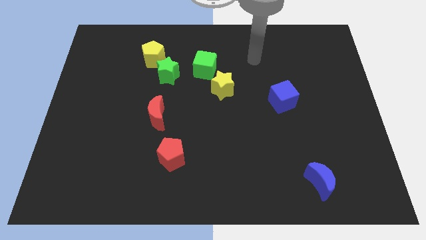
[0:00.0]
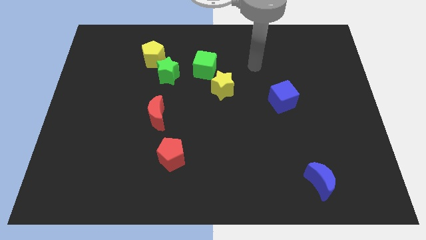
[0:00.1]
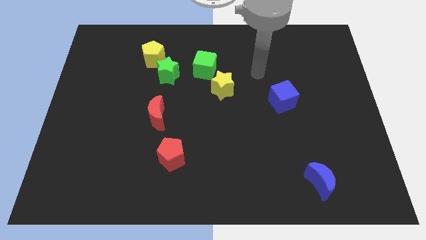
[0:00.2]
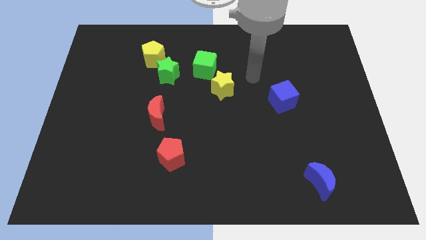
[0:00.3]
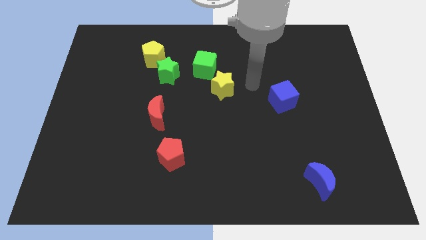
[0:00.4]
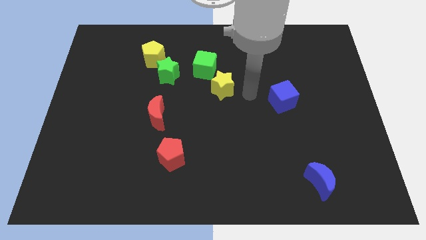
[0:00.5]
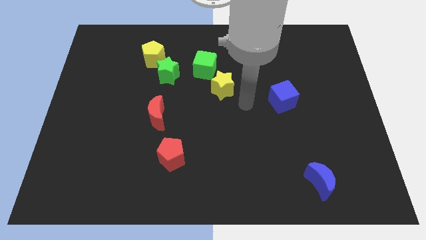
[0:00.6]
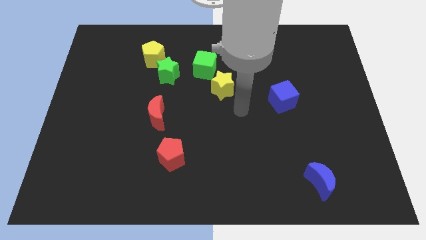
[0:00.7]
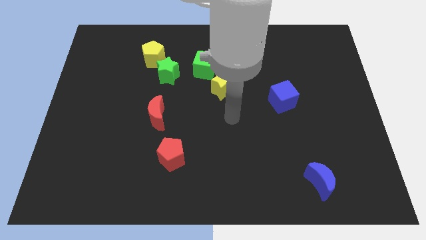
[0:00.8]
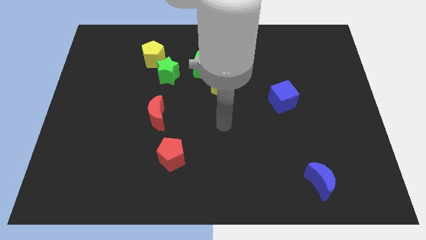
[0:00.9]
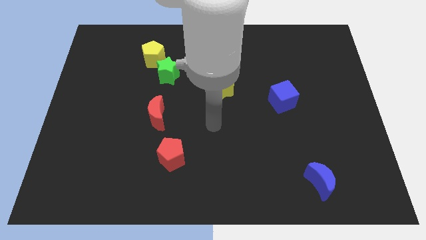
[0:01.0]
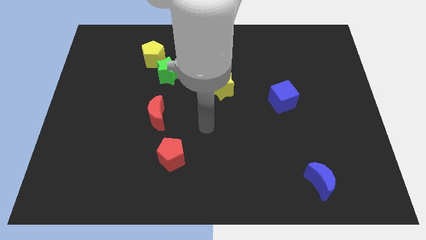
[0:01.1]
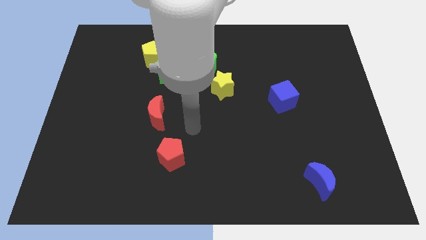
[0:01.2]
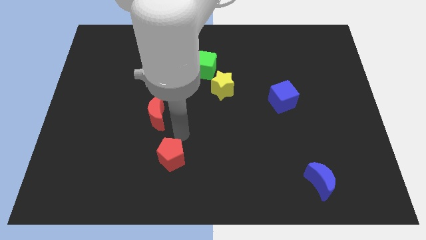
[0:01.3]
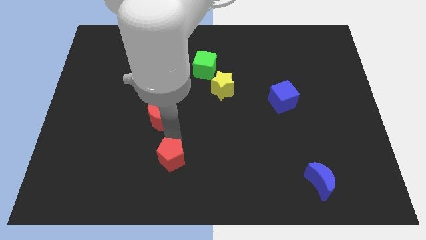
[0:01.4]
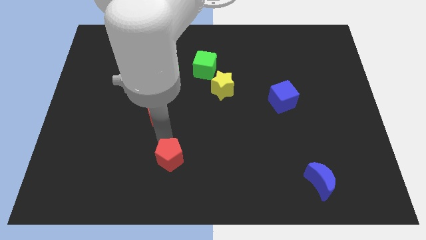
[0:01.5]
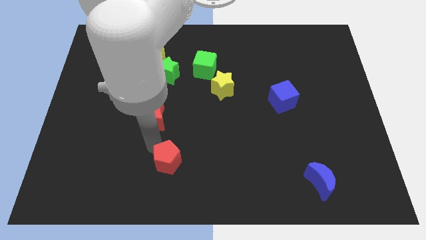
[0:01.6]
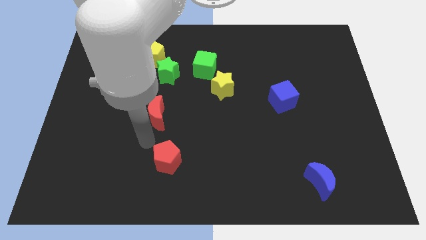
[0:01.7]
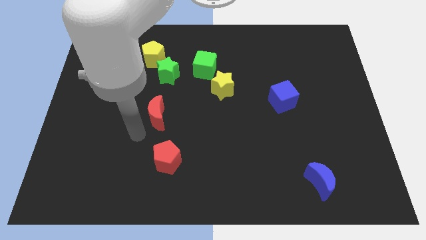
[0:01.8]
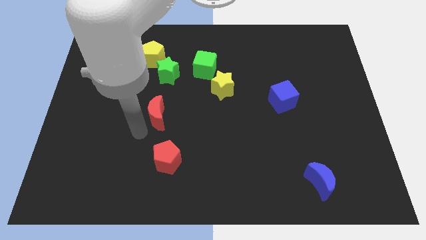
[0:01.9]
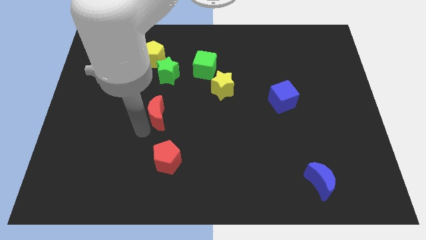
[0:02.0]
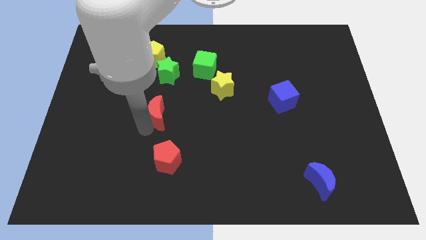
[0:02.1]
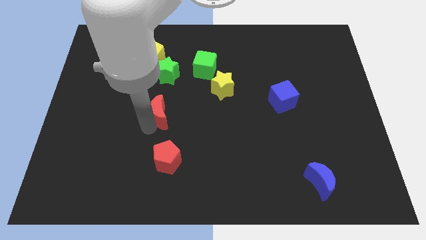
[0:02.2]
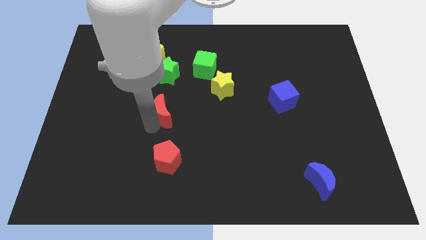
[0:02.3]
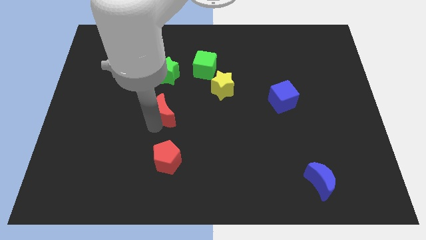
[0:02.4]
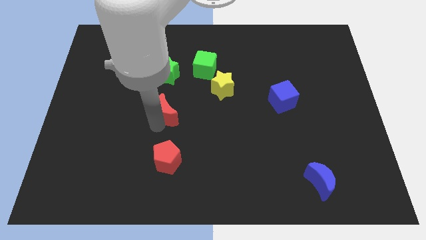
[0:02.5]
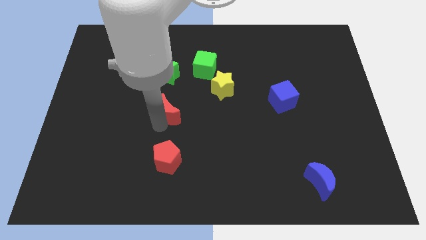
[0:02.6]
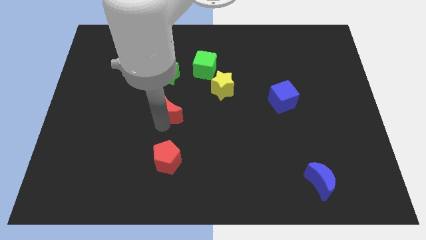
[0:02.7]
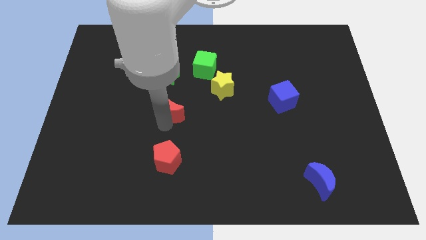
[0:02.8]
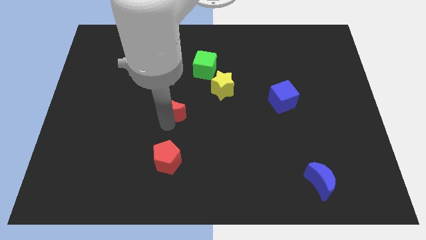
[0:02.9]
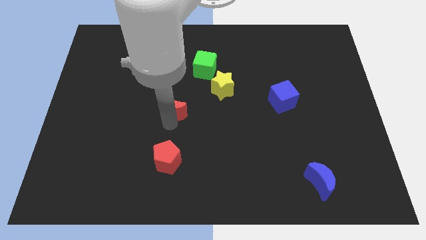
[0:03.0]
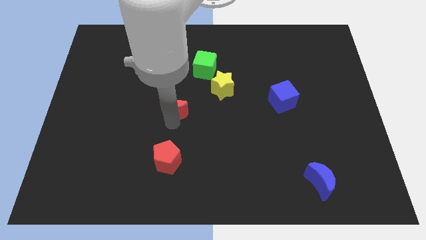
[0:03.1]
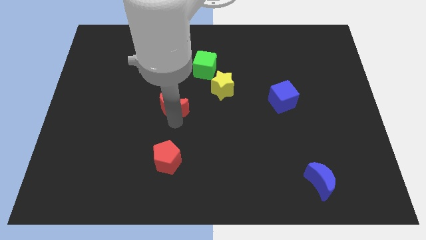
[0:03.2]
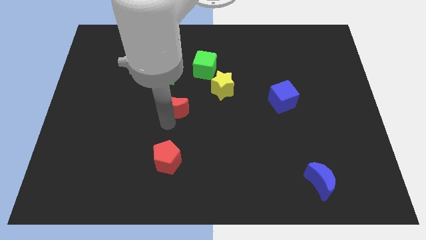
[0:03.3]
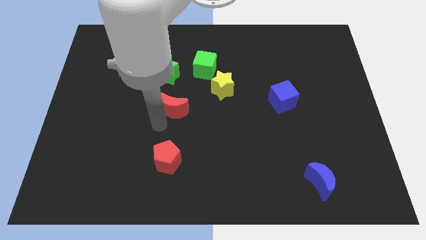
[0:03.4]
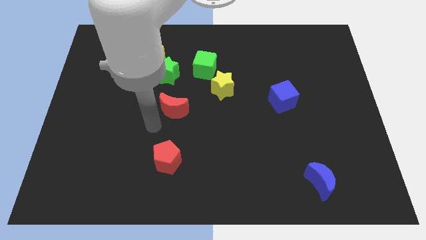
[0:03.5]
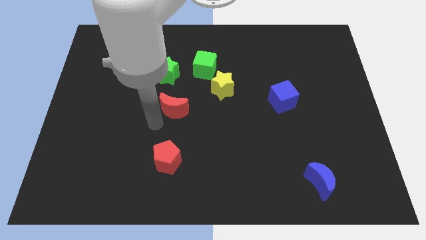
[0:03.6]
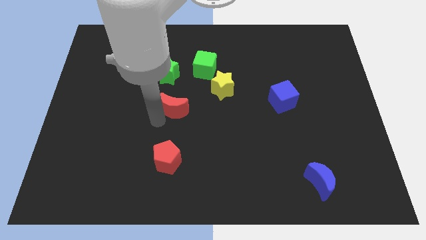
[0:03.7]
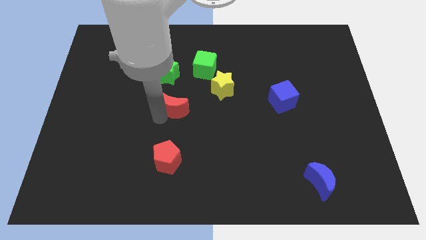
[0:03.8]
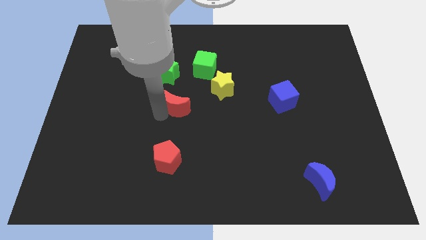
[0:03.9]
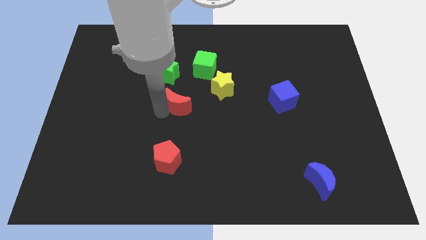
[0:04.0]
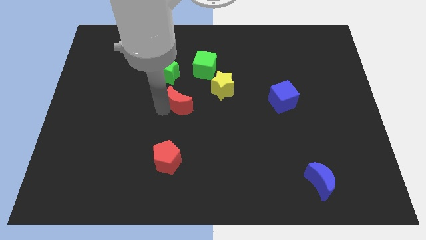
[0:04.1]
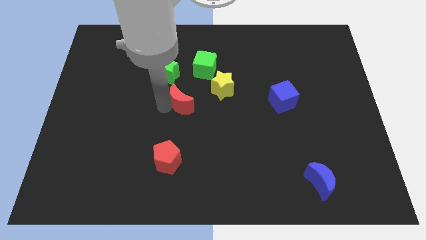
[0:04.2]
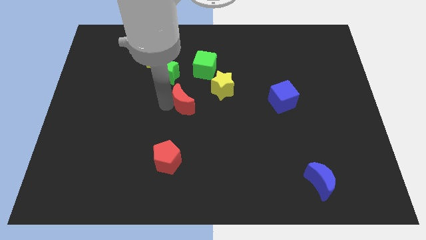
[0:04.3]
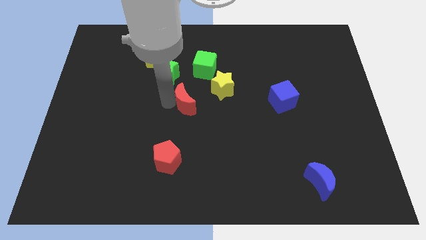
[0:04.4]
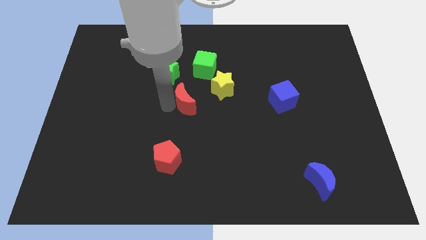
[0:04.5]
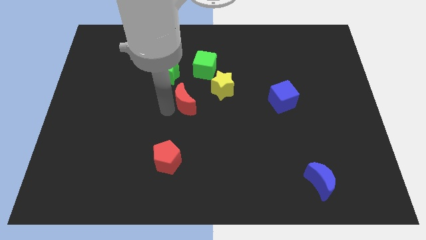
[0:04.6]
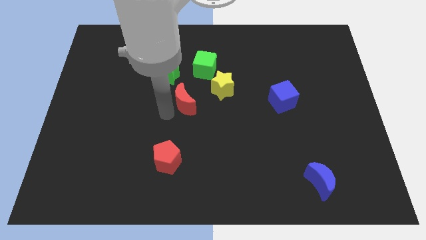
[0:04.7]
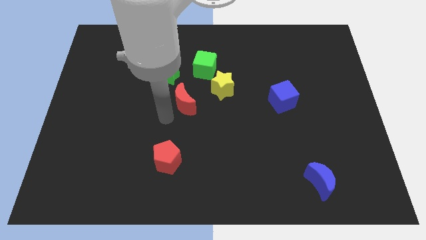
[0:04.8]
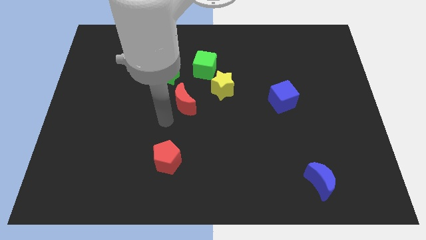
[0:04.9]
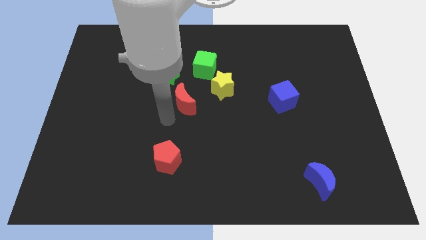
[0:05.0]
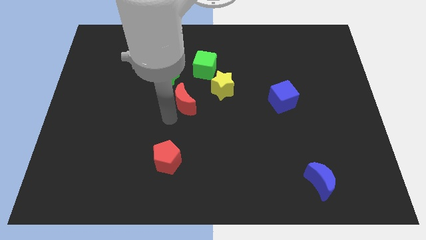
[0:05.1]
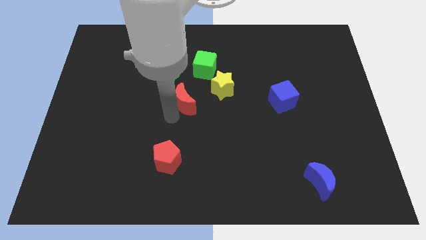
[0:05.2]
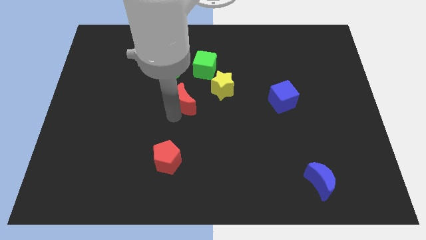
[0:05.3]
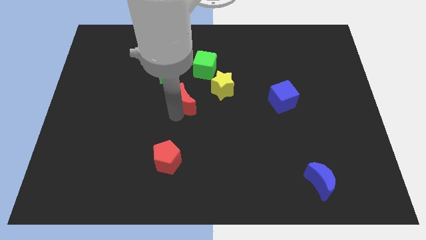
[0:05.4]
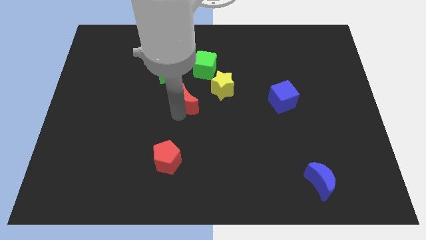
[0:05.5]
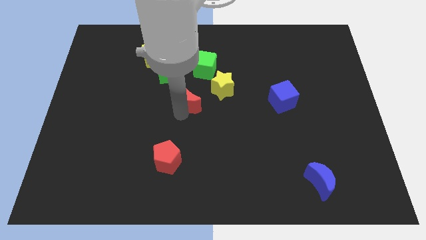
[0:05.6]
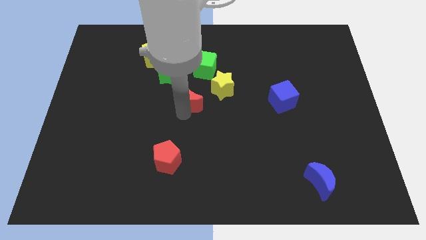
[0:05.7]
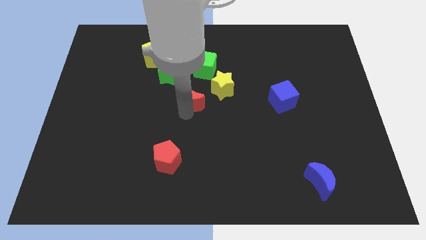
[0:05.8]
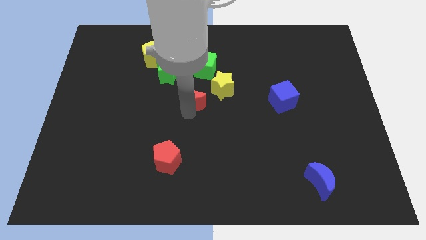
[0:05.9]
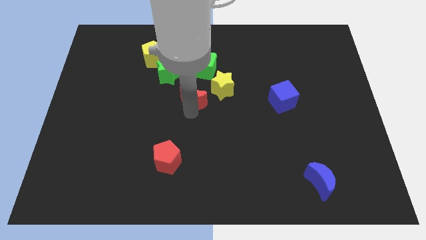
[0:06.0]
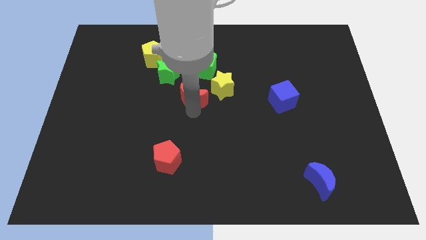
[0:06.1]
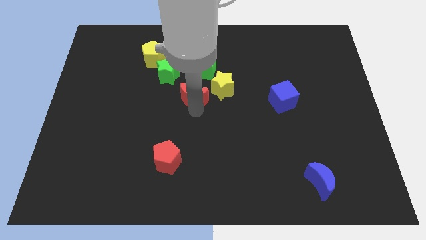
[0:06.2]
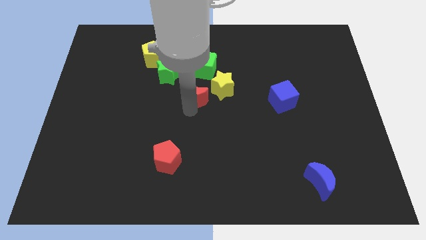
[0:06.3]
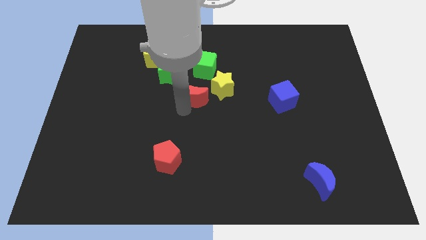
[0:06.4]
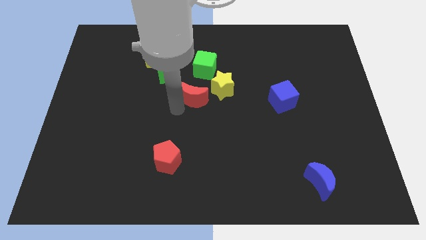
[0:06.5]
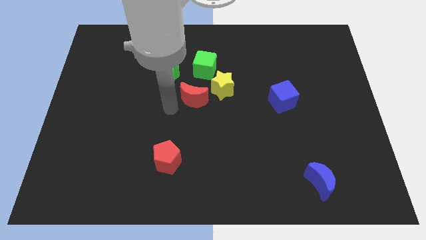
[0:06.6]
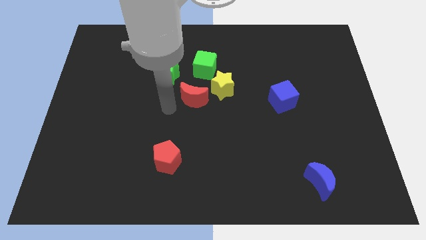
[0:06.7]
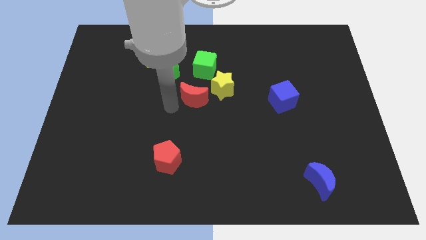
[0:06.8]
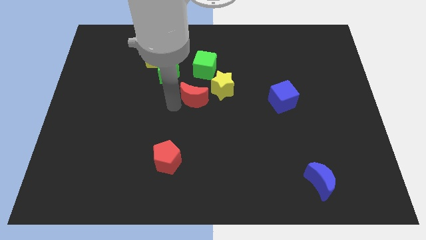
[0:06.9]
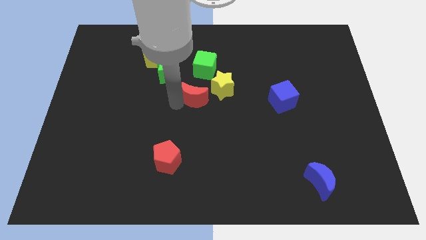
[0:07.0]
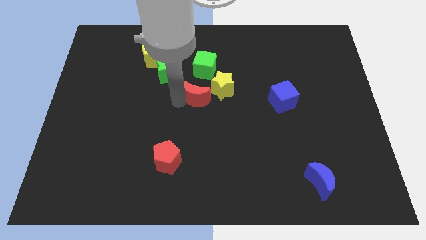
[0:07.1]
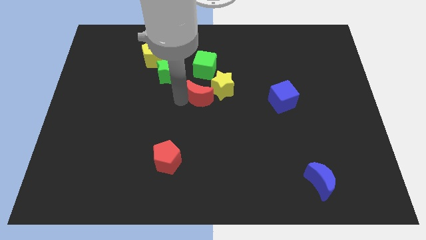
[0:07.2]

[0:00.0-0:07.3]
slide the red moon next to the yellow star
